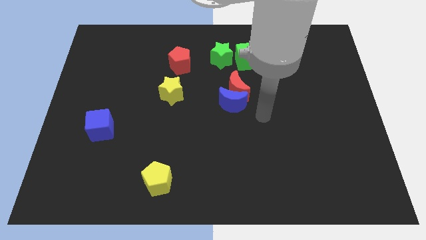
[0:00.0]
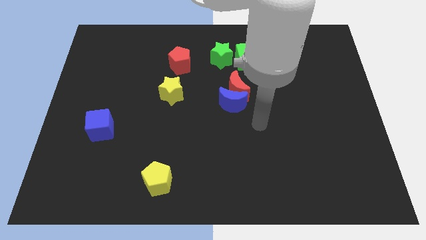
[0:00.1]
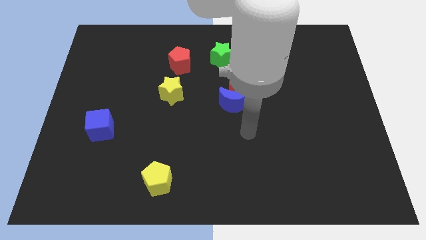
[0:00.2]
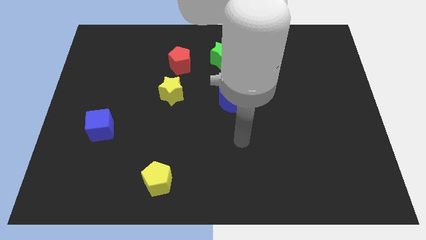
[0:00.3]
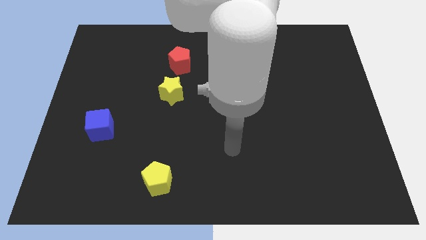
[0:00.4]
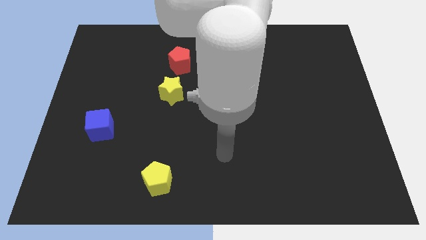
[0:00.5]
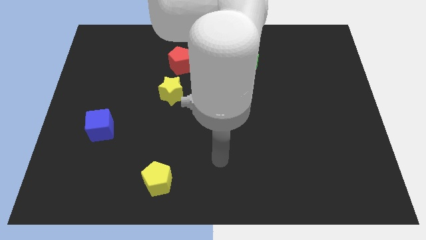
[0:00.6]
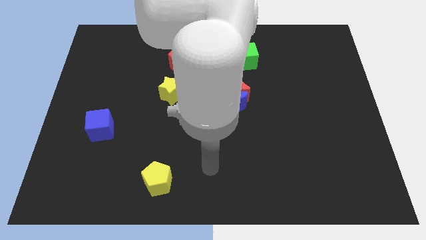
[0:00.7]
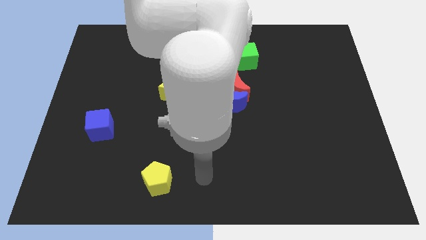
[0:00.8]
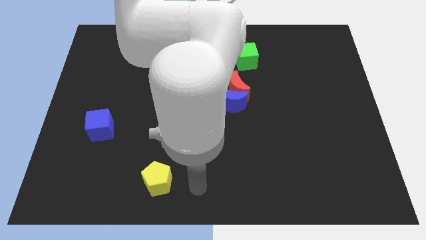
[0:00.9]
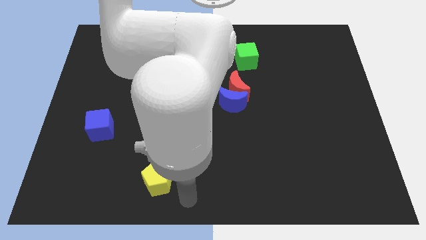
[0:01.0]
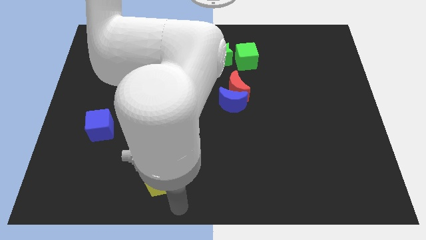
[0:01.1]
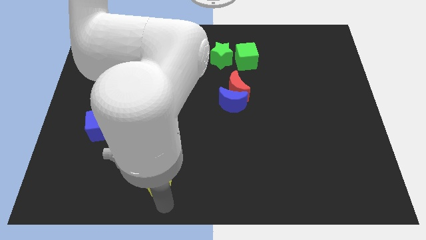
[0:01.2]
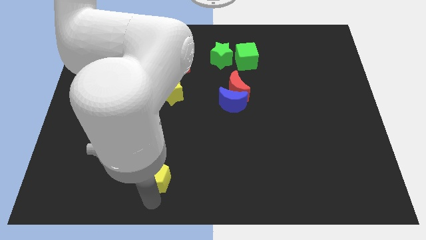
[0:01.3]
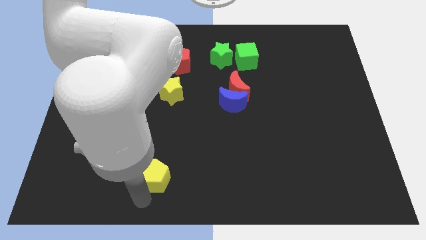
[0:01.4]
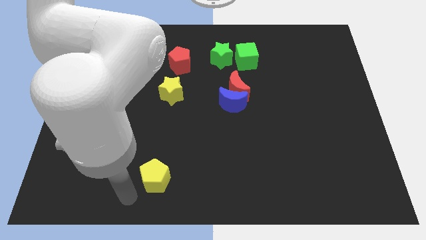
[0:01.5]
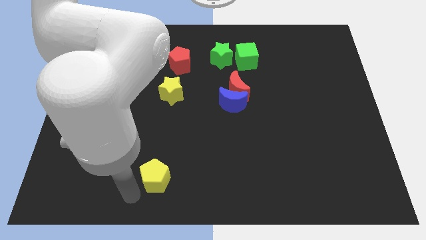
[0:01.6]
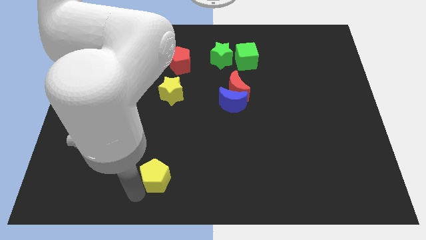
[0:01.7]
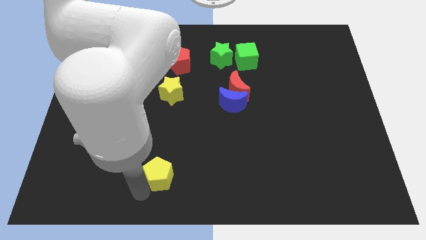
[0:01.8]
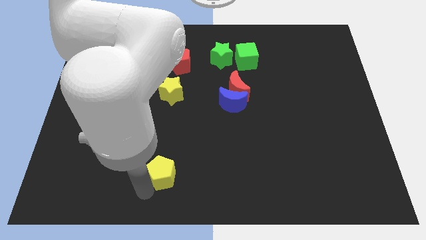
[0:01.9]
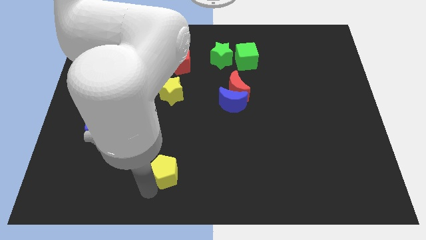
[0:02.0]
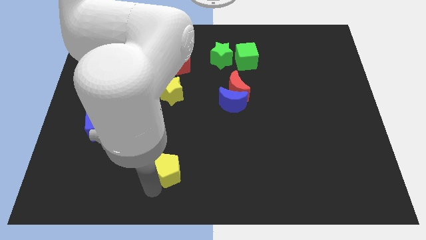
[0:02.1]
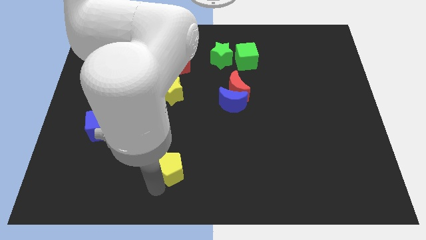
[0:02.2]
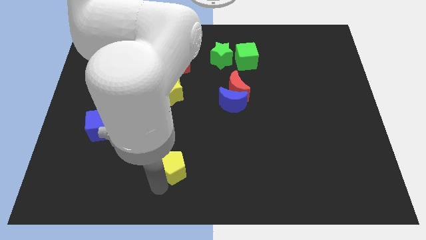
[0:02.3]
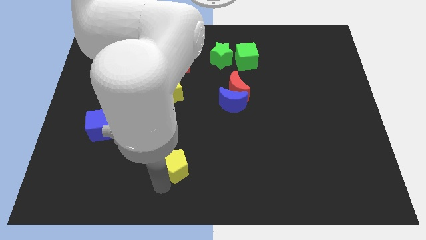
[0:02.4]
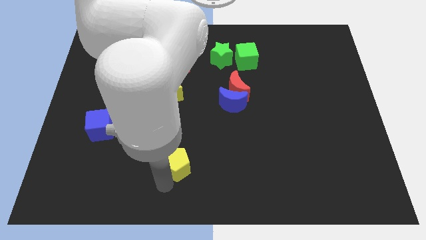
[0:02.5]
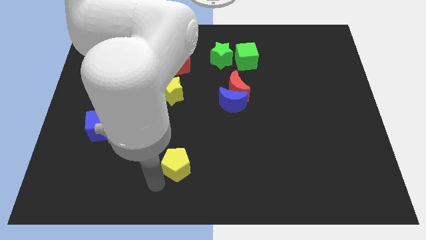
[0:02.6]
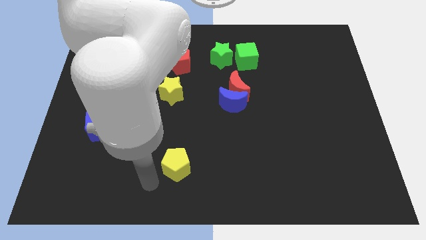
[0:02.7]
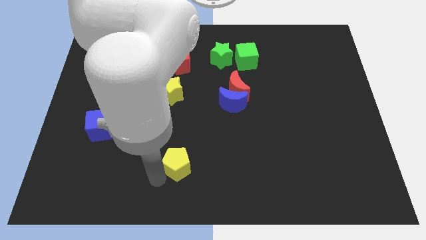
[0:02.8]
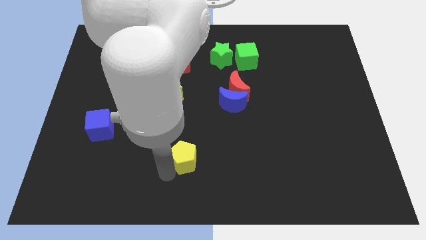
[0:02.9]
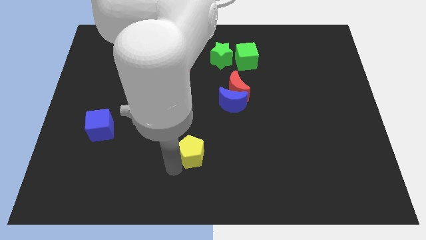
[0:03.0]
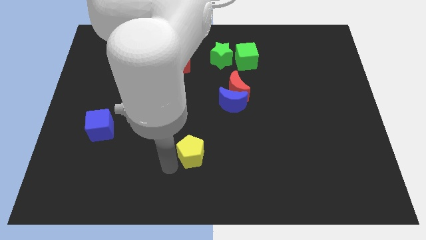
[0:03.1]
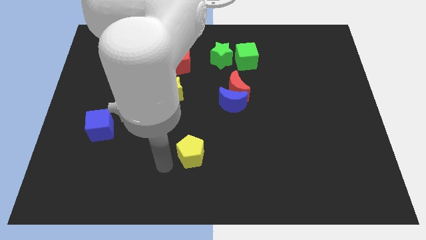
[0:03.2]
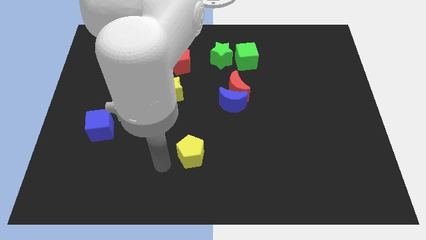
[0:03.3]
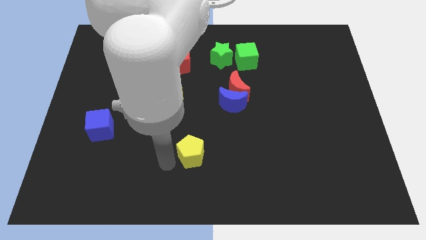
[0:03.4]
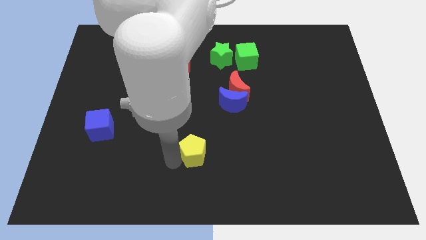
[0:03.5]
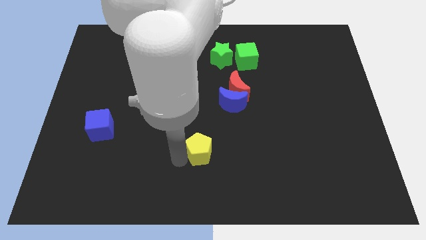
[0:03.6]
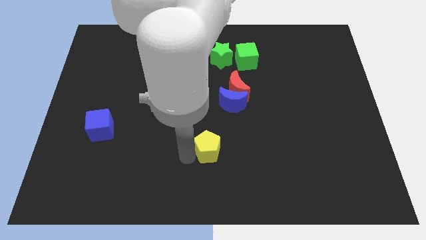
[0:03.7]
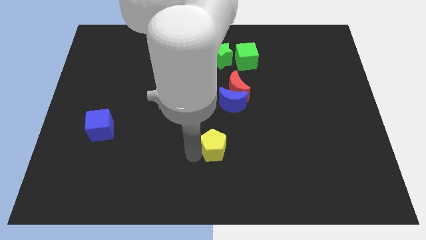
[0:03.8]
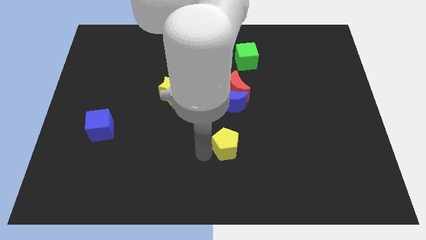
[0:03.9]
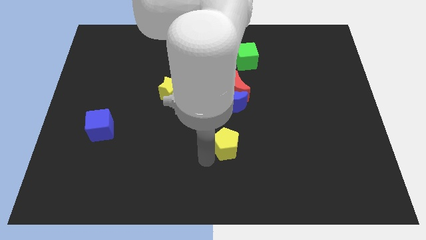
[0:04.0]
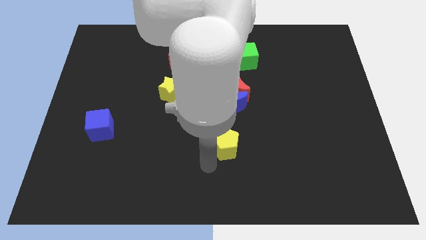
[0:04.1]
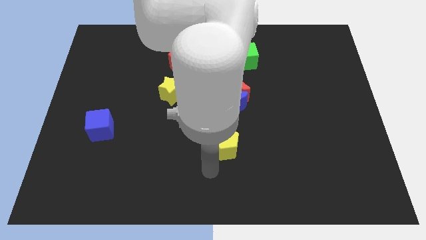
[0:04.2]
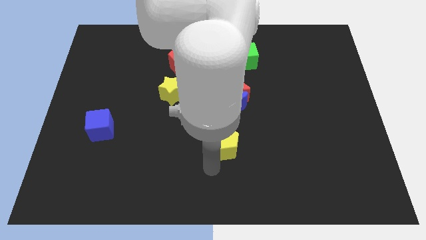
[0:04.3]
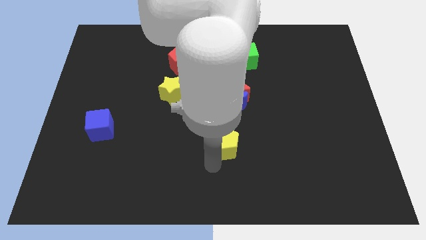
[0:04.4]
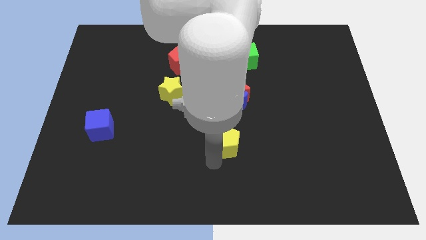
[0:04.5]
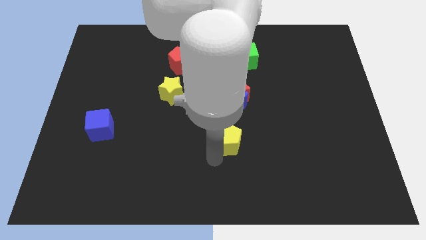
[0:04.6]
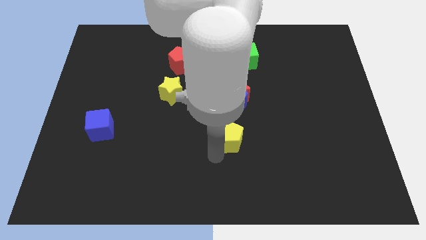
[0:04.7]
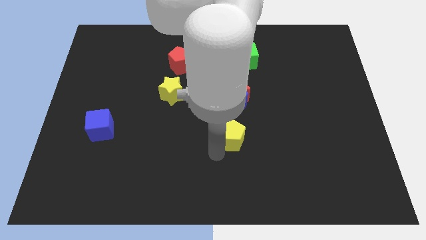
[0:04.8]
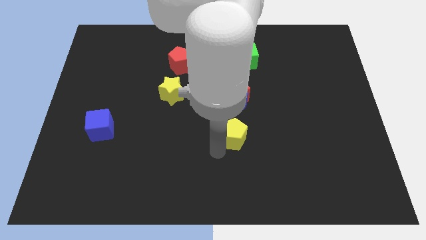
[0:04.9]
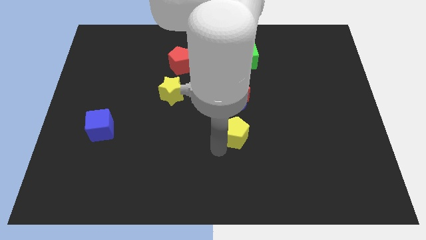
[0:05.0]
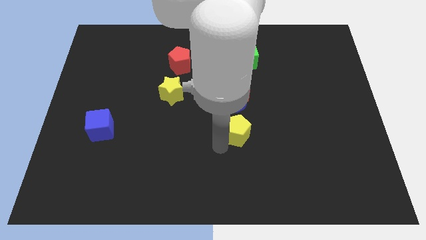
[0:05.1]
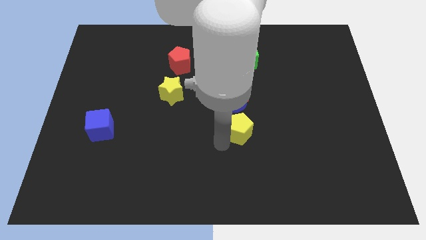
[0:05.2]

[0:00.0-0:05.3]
slide the yellow pentagon upwards and right

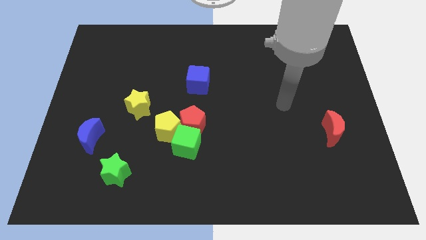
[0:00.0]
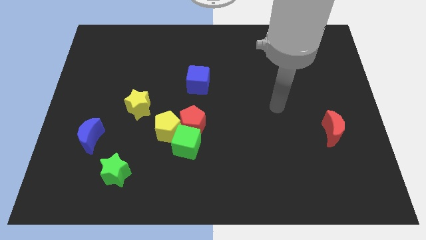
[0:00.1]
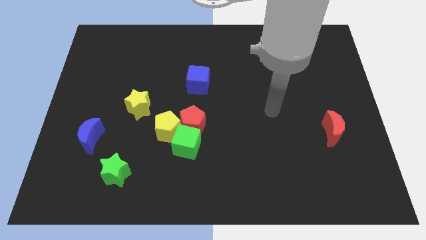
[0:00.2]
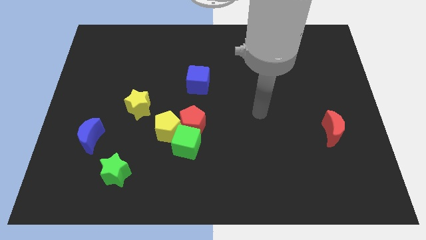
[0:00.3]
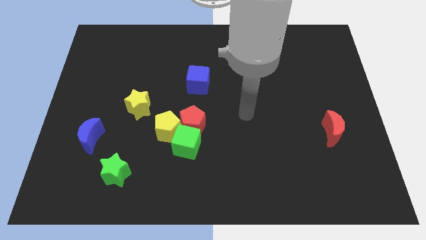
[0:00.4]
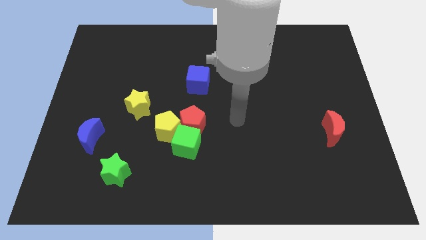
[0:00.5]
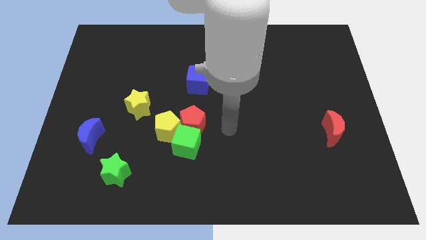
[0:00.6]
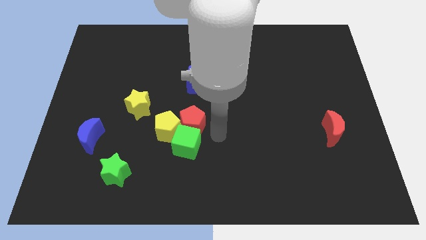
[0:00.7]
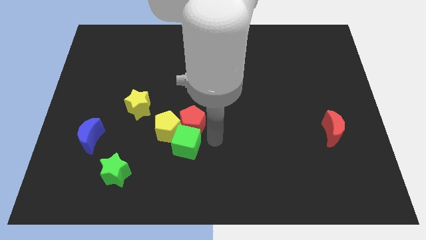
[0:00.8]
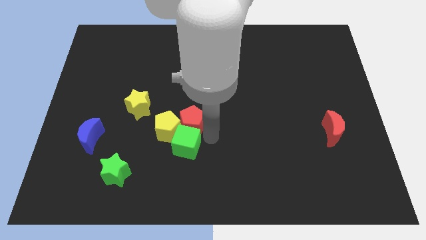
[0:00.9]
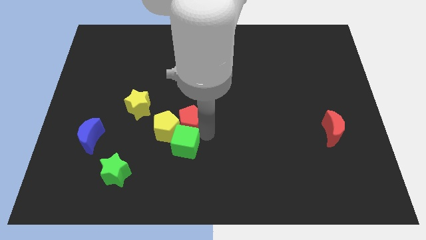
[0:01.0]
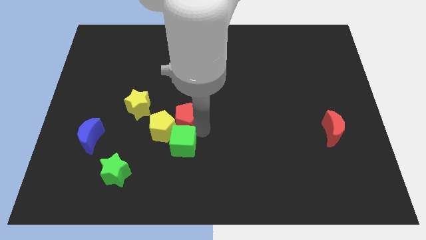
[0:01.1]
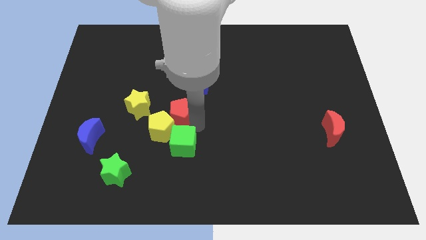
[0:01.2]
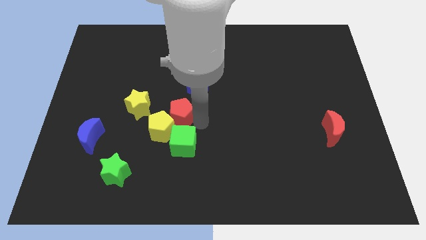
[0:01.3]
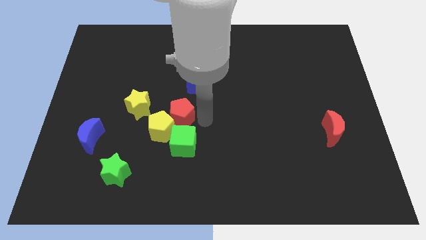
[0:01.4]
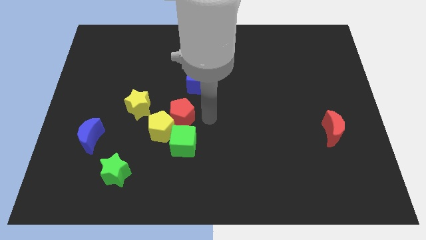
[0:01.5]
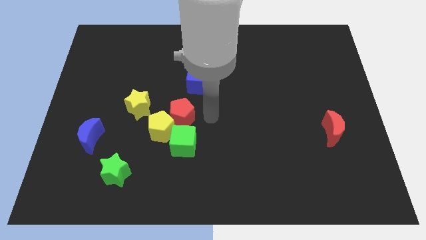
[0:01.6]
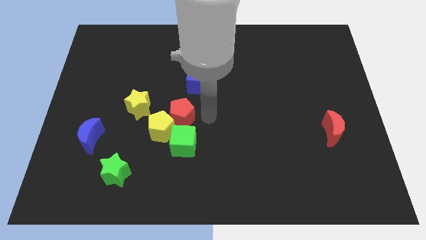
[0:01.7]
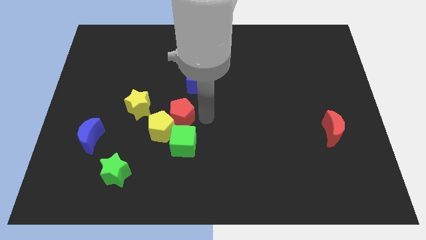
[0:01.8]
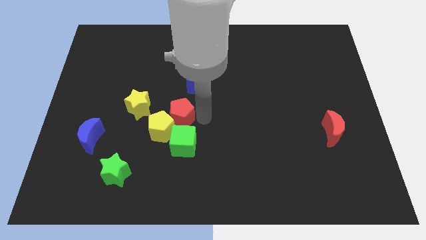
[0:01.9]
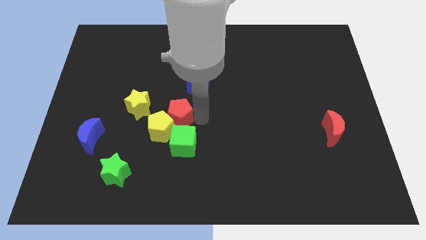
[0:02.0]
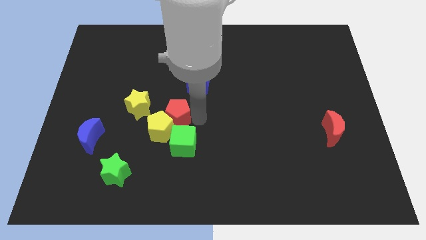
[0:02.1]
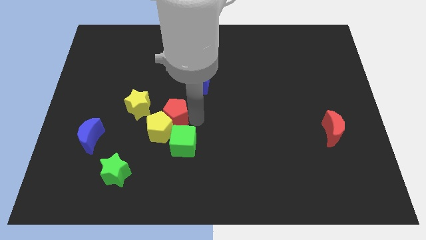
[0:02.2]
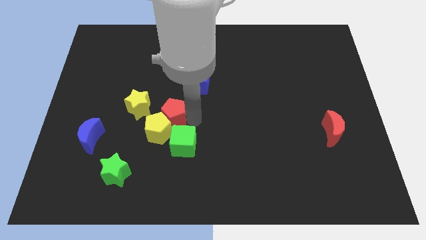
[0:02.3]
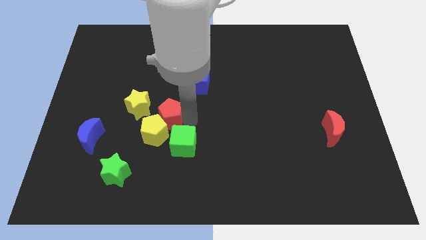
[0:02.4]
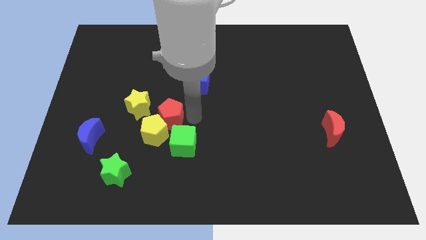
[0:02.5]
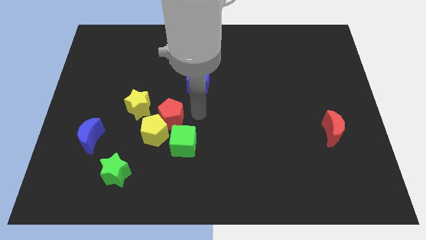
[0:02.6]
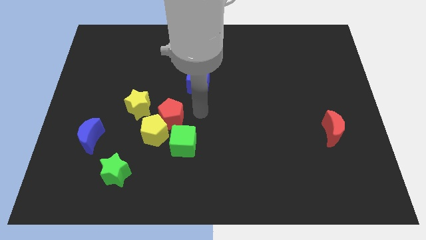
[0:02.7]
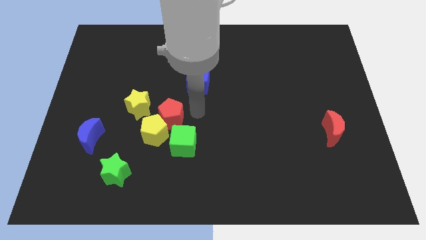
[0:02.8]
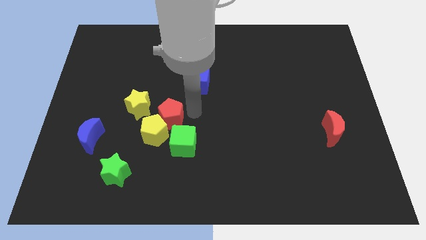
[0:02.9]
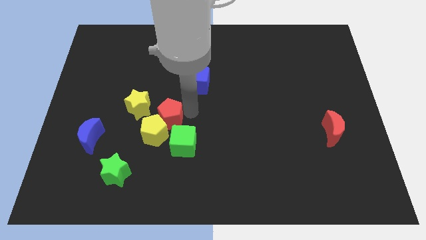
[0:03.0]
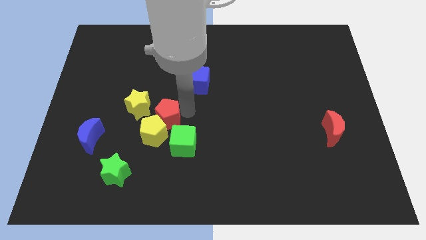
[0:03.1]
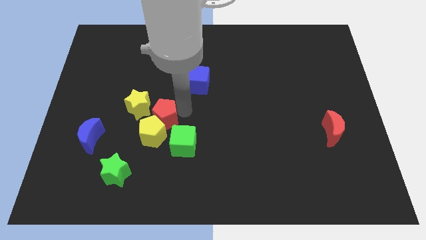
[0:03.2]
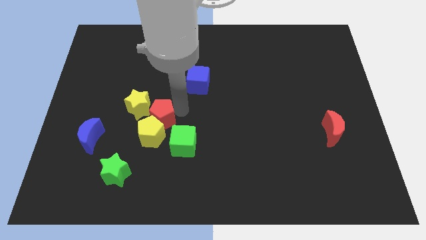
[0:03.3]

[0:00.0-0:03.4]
move the red pentagon left a little
